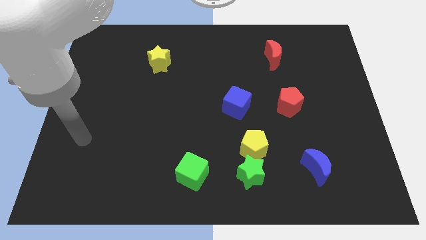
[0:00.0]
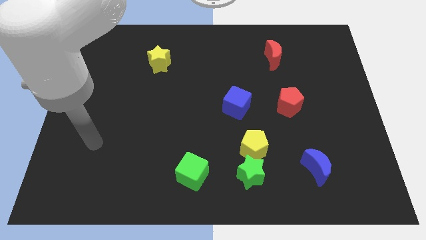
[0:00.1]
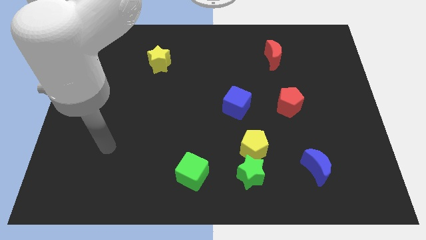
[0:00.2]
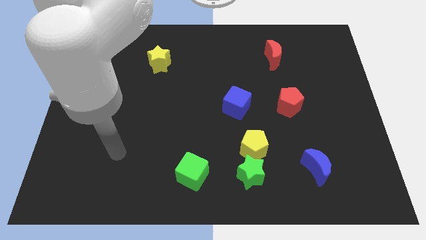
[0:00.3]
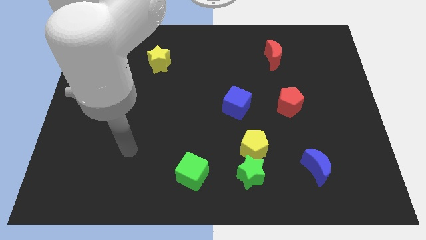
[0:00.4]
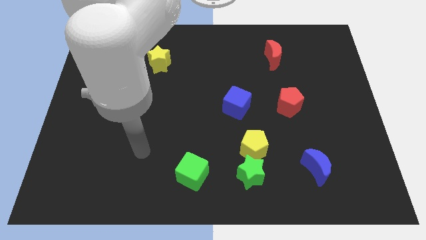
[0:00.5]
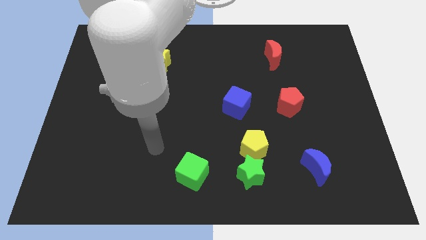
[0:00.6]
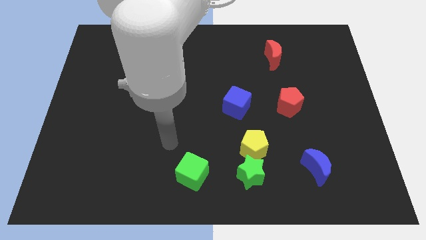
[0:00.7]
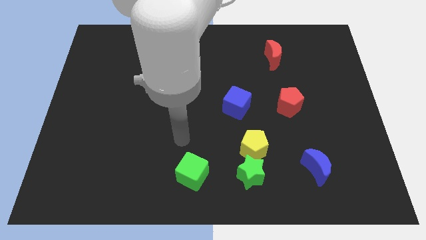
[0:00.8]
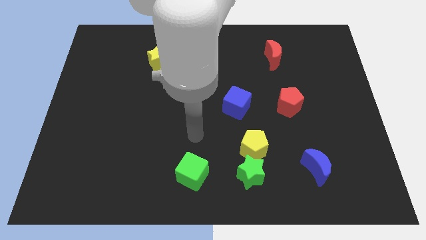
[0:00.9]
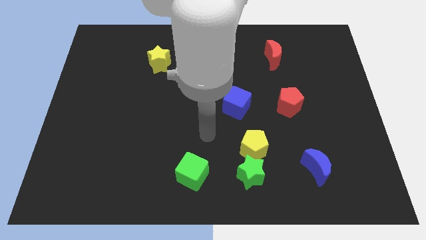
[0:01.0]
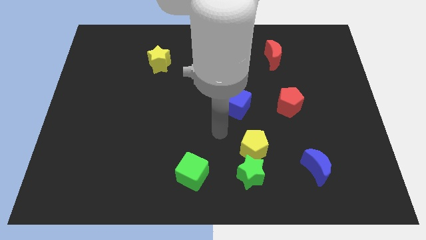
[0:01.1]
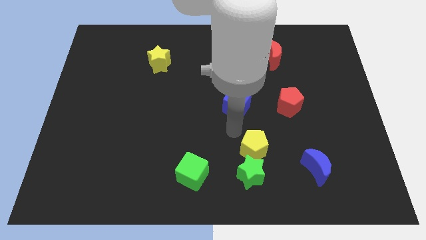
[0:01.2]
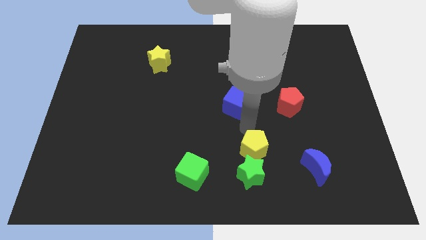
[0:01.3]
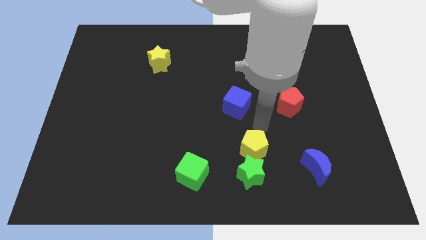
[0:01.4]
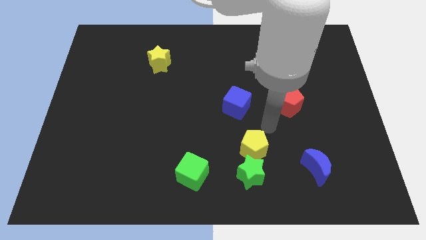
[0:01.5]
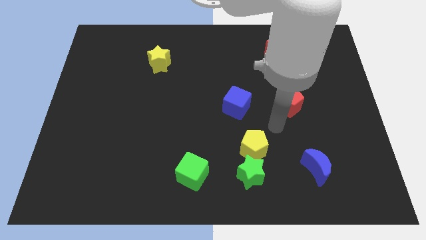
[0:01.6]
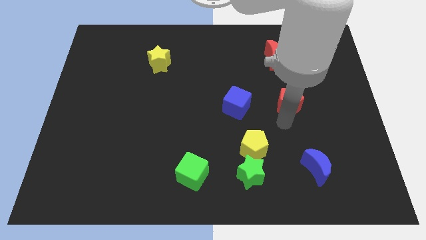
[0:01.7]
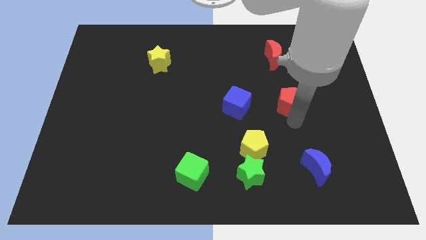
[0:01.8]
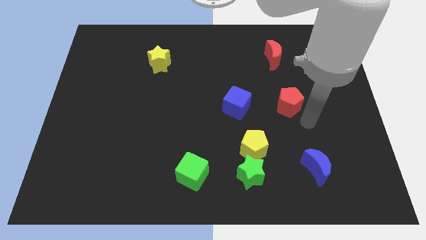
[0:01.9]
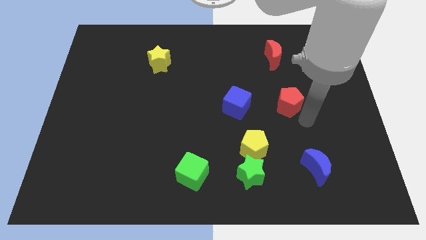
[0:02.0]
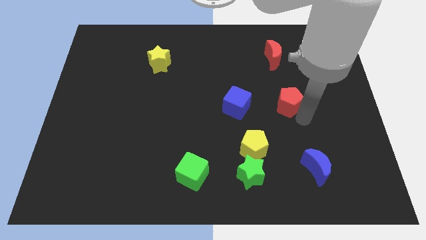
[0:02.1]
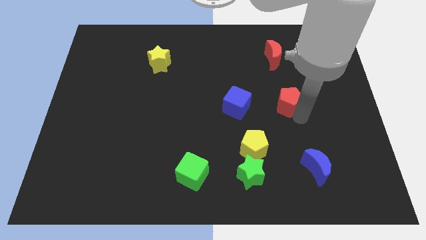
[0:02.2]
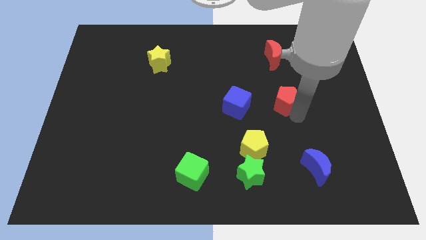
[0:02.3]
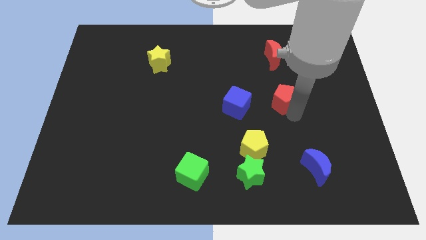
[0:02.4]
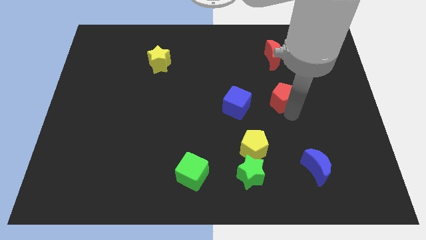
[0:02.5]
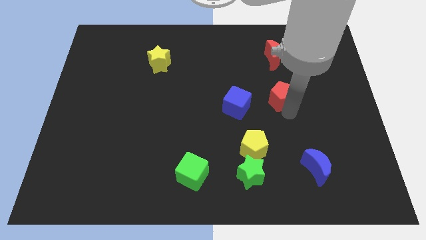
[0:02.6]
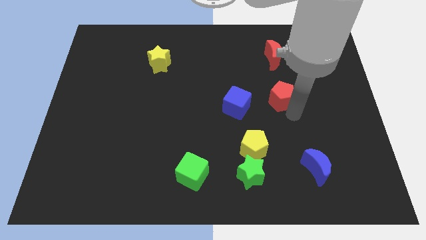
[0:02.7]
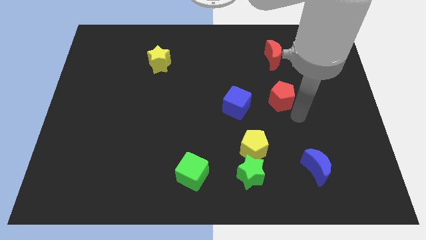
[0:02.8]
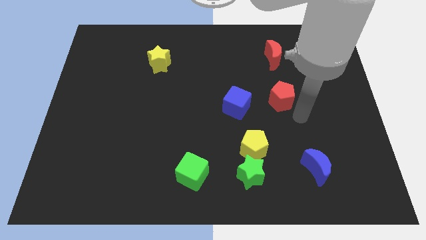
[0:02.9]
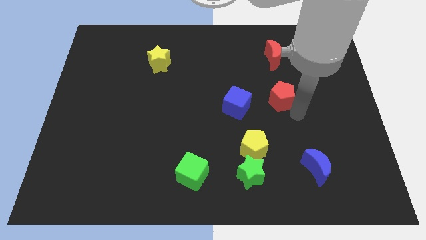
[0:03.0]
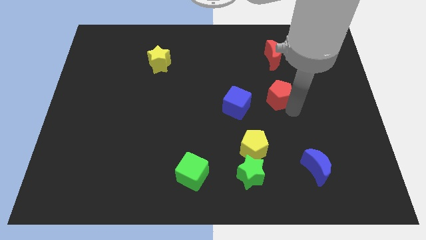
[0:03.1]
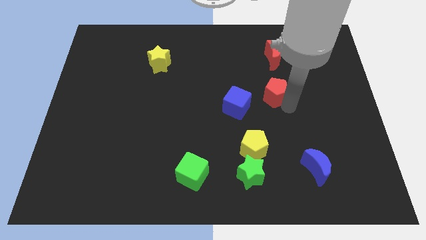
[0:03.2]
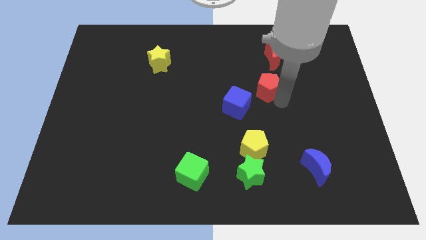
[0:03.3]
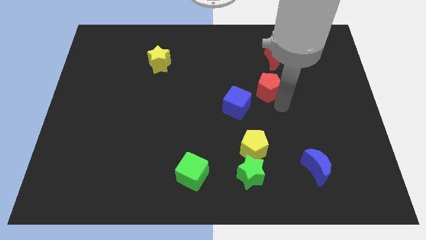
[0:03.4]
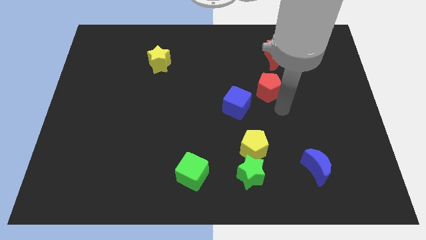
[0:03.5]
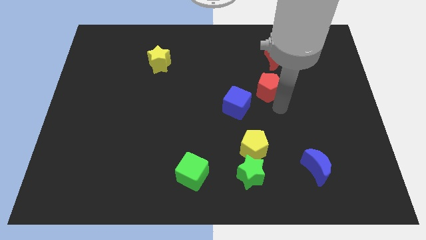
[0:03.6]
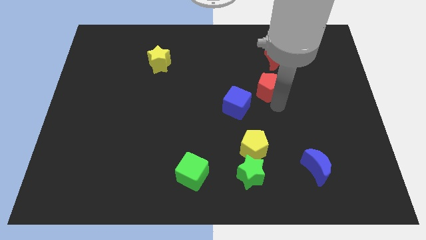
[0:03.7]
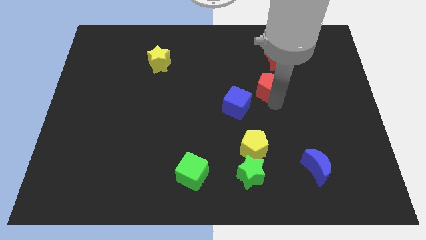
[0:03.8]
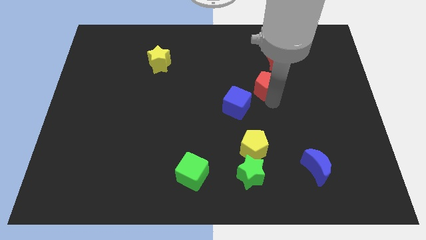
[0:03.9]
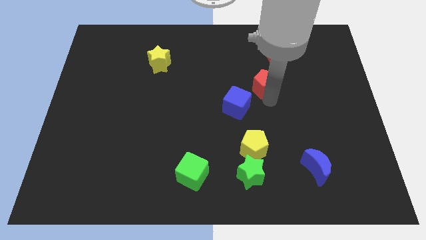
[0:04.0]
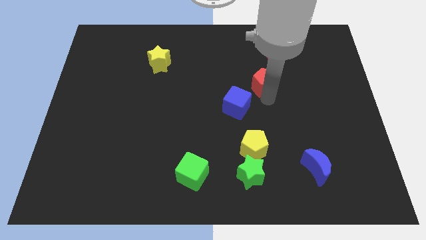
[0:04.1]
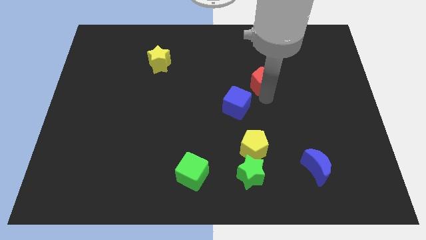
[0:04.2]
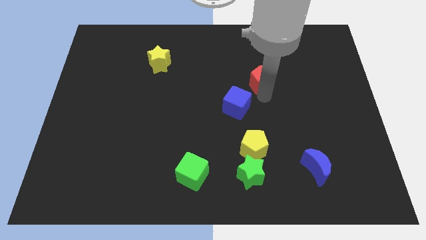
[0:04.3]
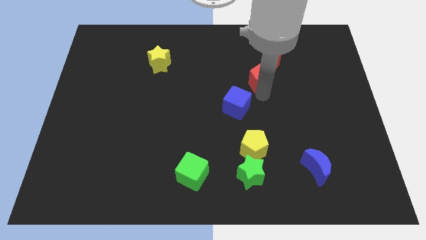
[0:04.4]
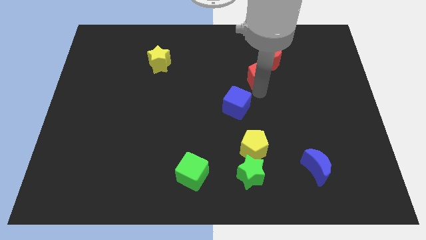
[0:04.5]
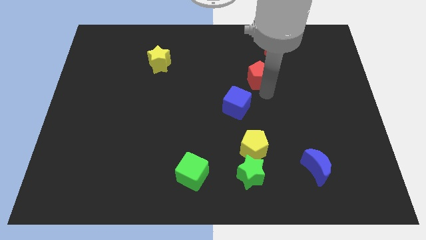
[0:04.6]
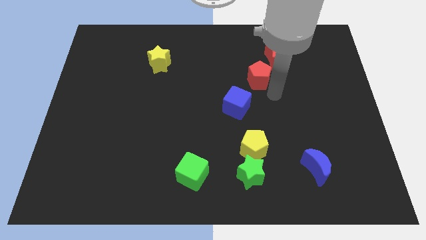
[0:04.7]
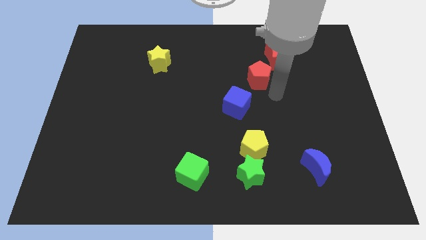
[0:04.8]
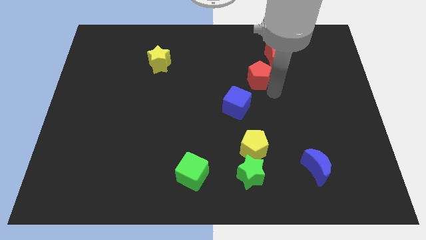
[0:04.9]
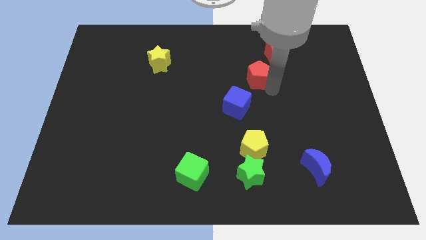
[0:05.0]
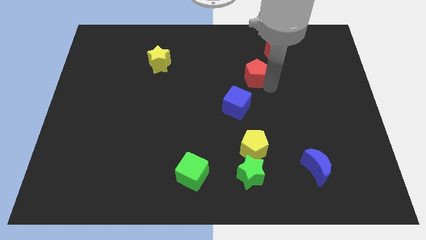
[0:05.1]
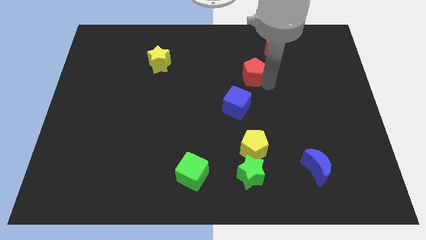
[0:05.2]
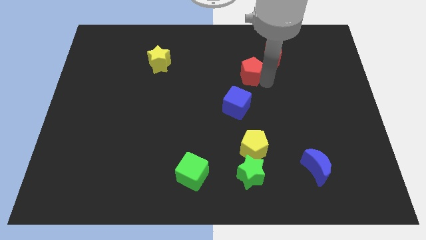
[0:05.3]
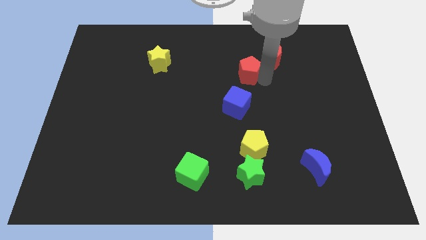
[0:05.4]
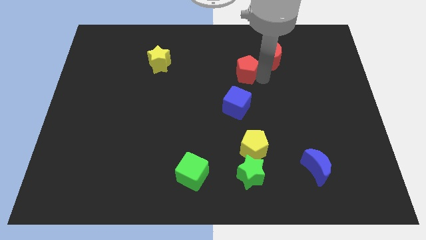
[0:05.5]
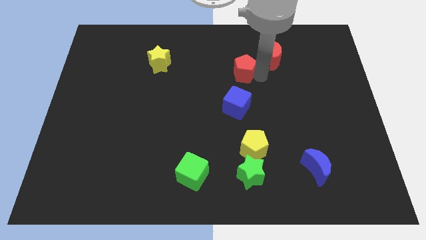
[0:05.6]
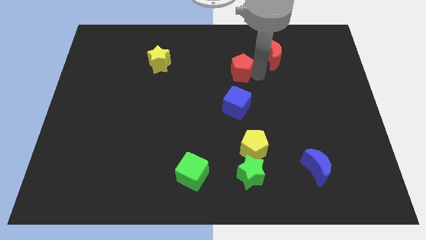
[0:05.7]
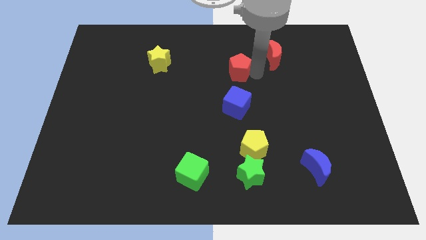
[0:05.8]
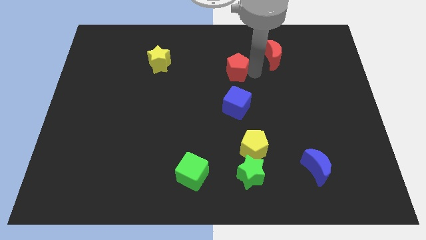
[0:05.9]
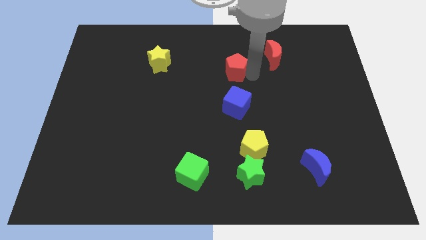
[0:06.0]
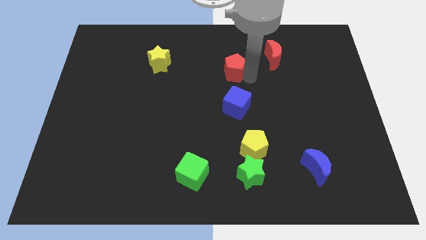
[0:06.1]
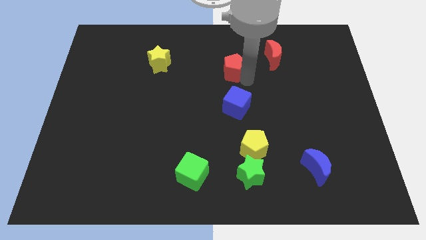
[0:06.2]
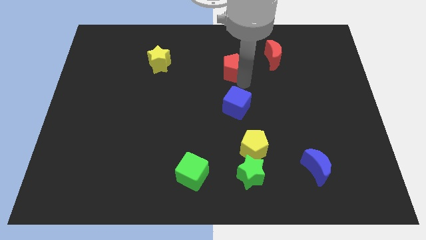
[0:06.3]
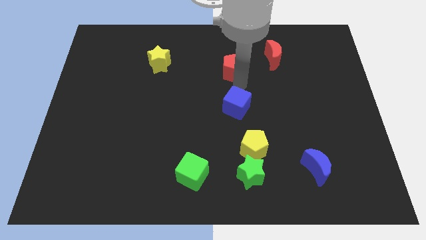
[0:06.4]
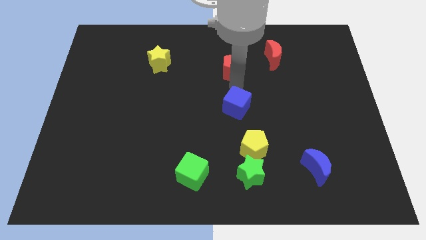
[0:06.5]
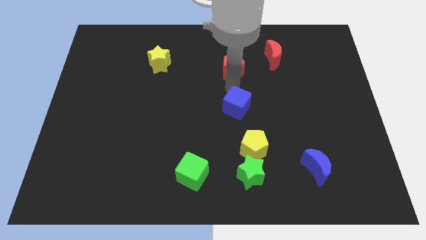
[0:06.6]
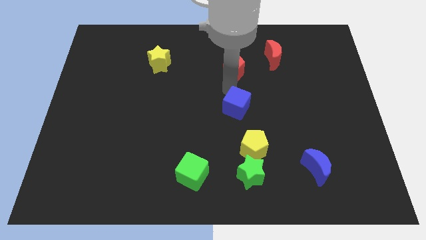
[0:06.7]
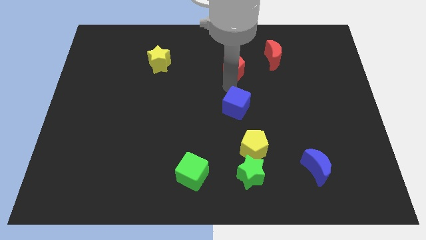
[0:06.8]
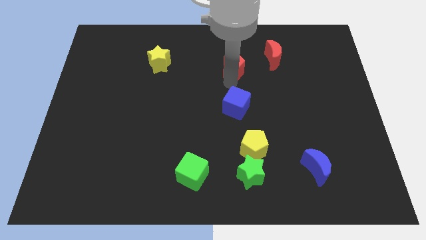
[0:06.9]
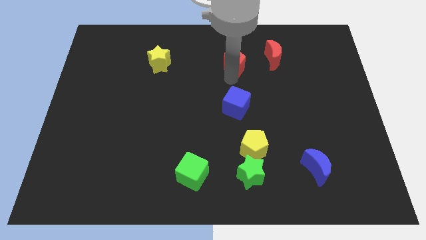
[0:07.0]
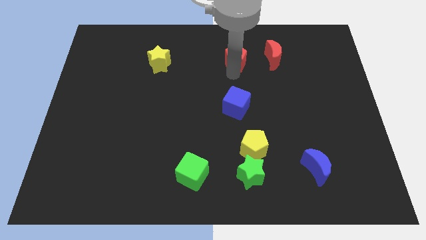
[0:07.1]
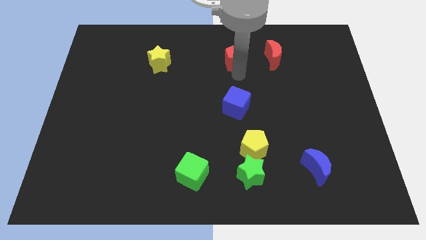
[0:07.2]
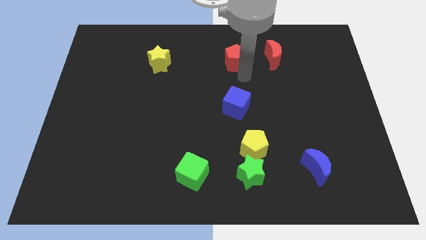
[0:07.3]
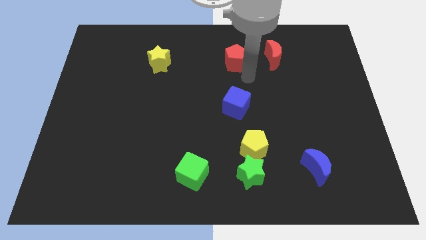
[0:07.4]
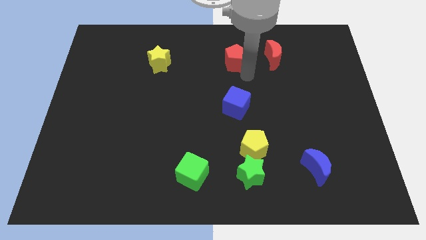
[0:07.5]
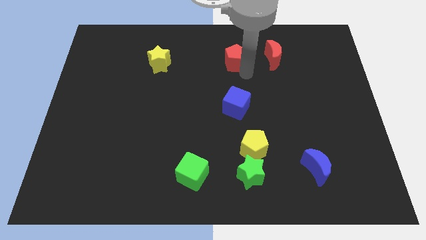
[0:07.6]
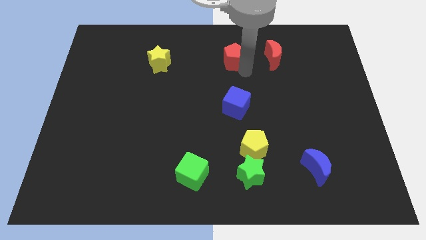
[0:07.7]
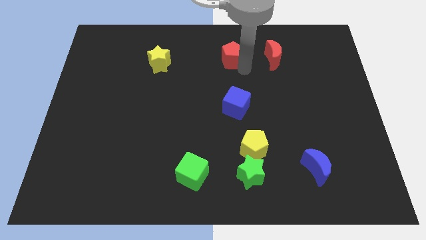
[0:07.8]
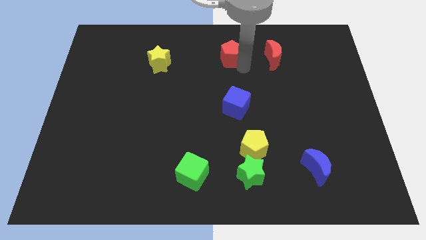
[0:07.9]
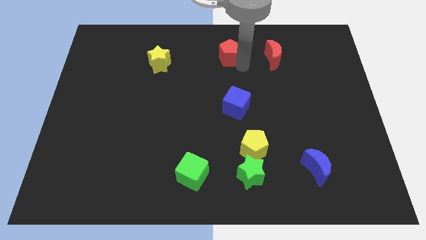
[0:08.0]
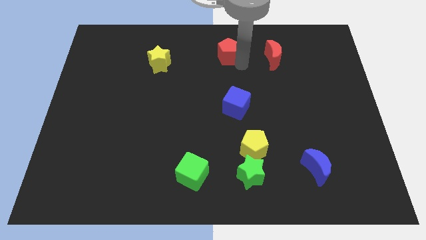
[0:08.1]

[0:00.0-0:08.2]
move the red pentagon to the top
